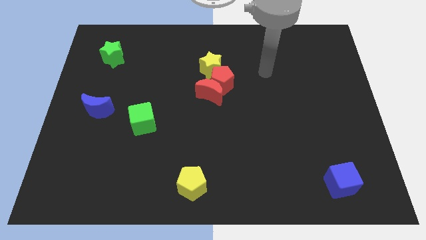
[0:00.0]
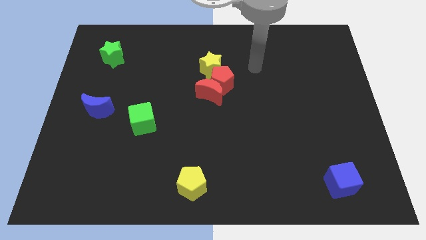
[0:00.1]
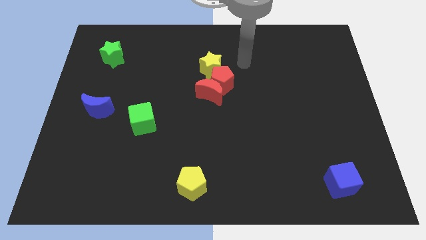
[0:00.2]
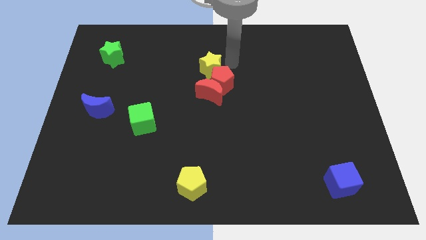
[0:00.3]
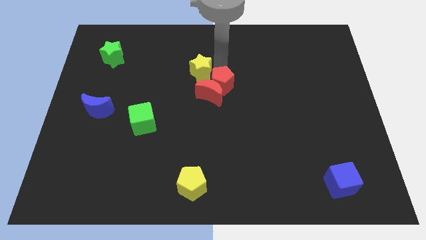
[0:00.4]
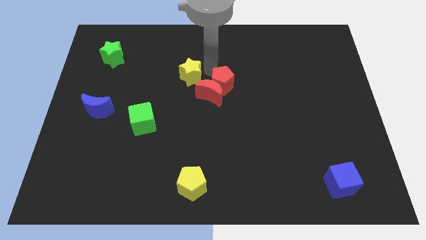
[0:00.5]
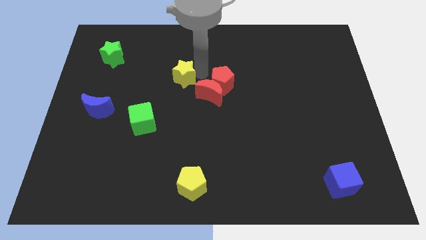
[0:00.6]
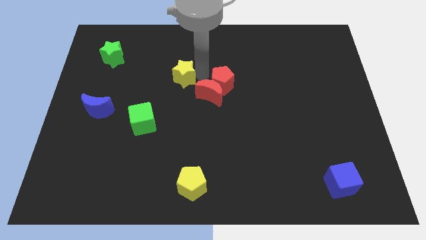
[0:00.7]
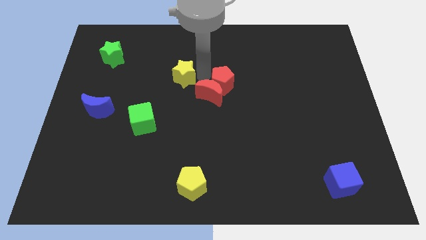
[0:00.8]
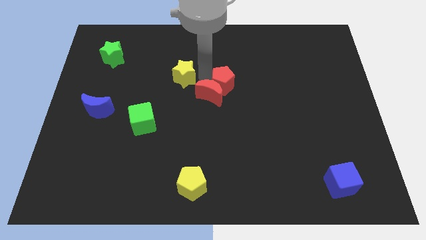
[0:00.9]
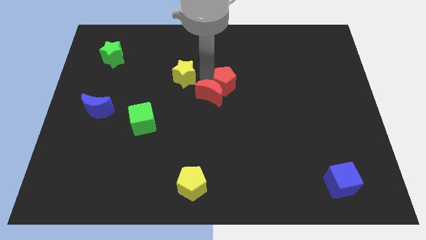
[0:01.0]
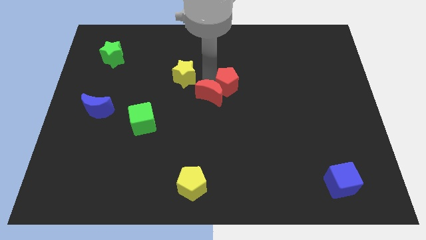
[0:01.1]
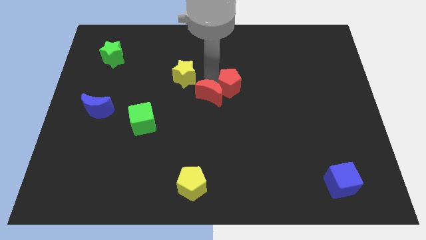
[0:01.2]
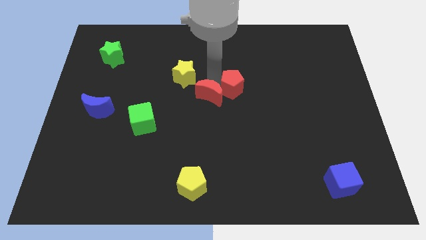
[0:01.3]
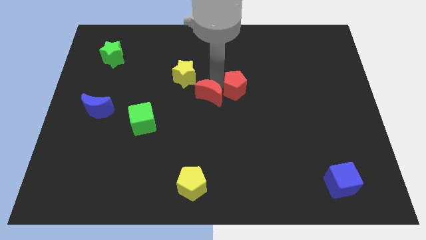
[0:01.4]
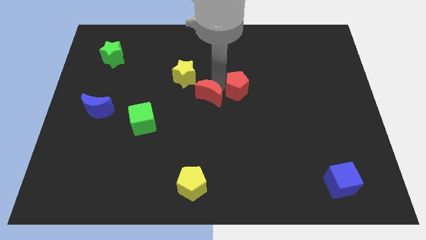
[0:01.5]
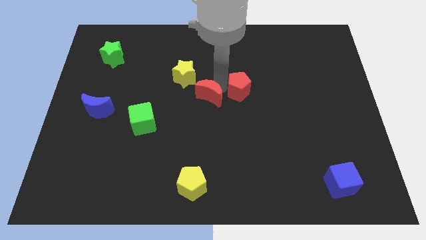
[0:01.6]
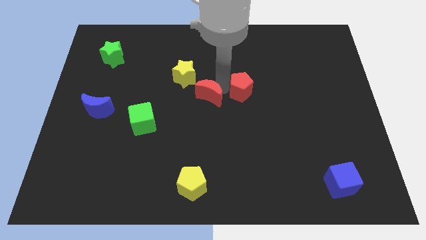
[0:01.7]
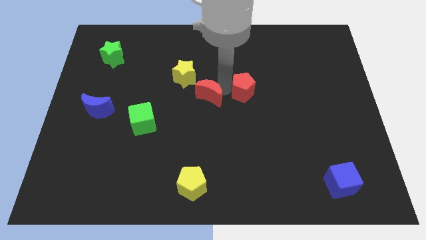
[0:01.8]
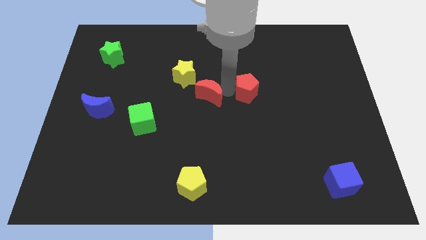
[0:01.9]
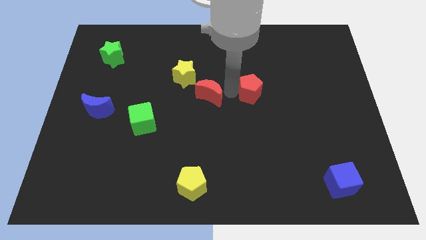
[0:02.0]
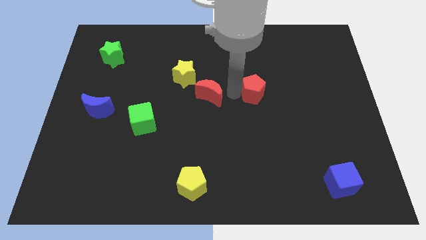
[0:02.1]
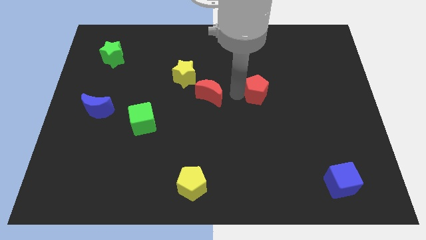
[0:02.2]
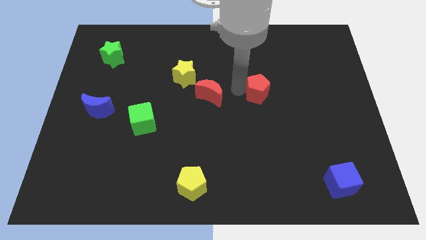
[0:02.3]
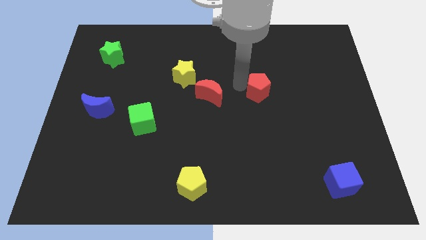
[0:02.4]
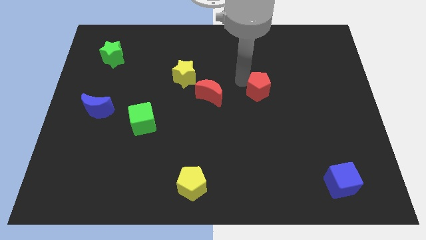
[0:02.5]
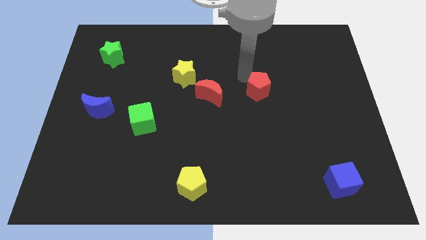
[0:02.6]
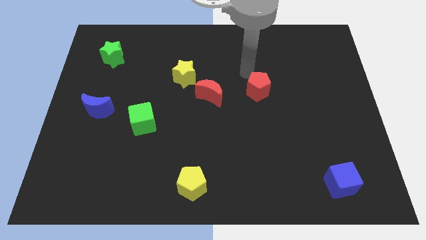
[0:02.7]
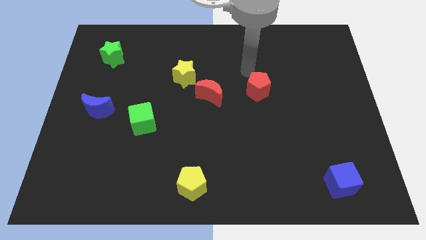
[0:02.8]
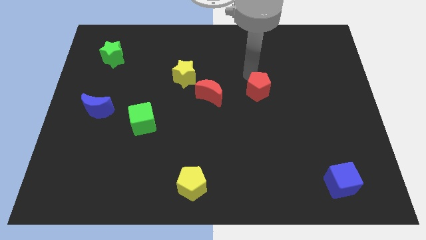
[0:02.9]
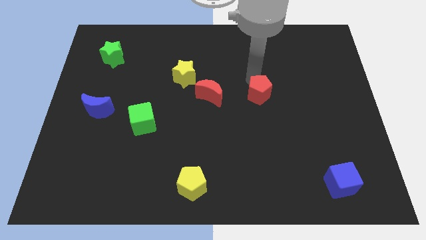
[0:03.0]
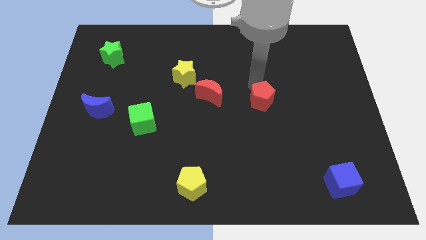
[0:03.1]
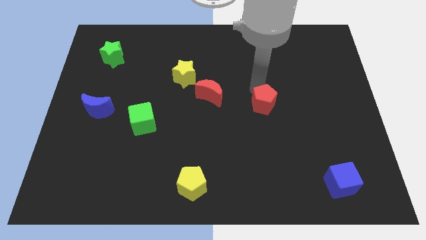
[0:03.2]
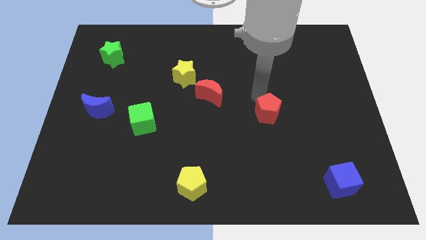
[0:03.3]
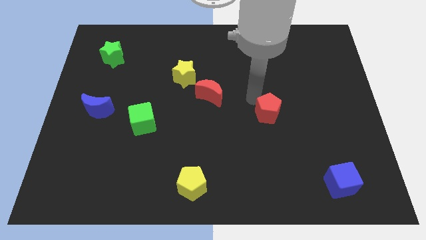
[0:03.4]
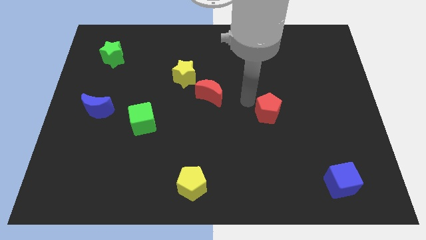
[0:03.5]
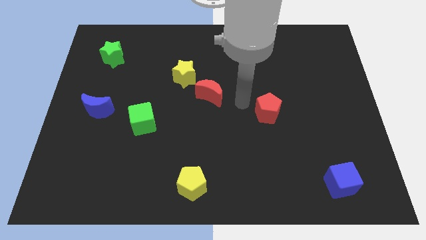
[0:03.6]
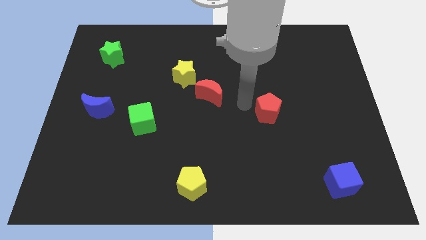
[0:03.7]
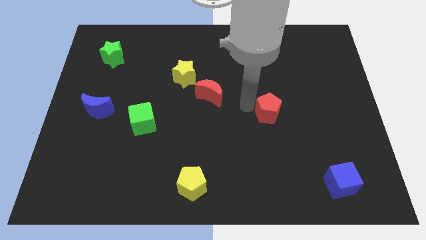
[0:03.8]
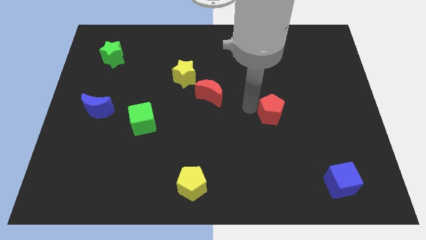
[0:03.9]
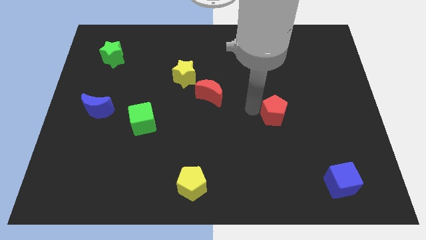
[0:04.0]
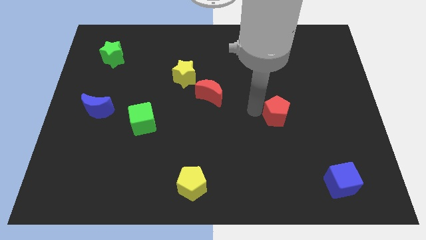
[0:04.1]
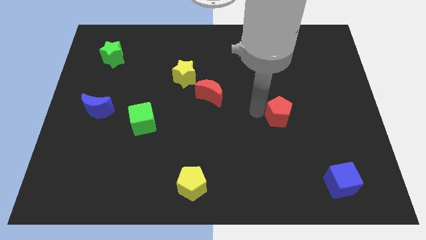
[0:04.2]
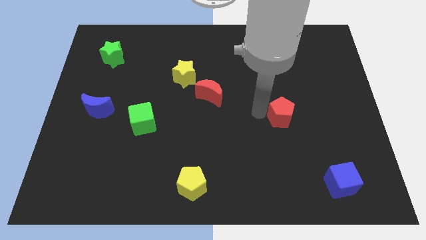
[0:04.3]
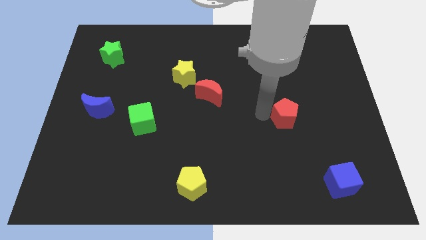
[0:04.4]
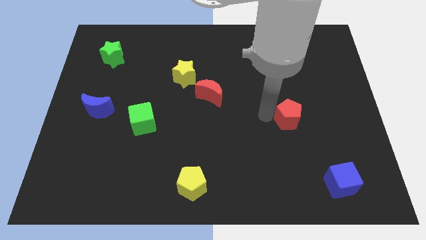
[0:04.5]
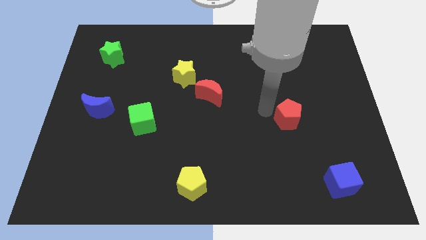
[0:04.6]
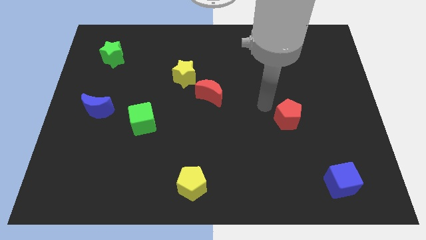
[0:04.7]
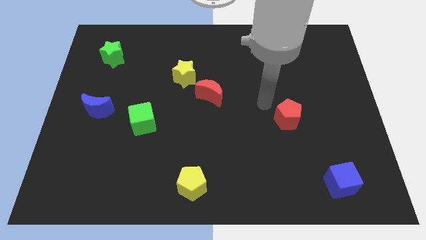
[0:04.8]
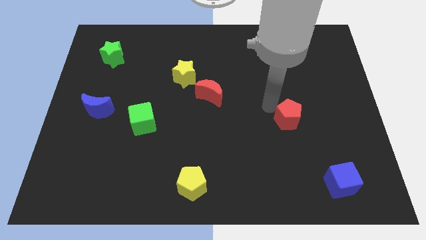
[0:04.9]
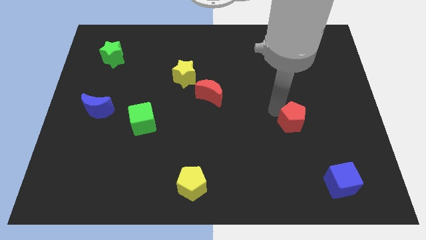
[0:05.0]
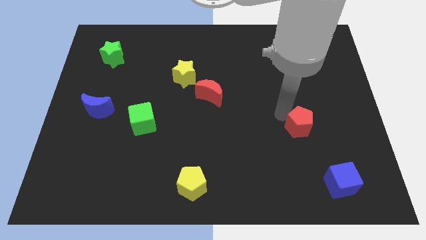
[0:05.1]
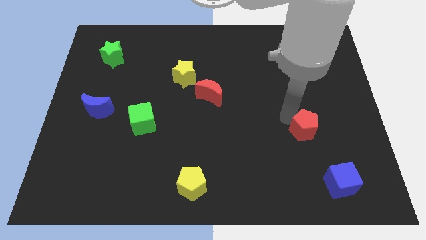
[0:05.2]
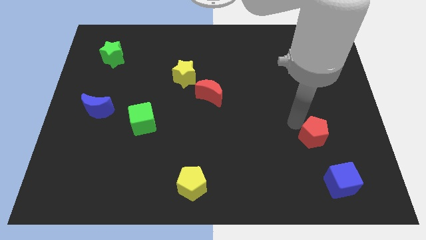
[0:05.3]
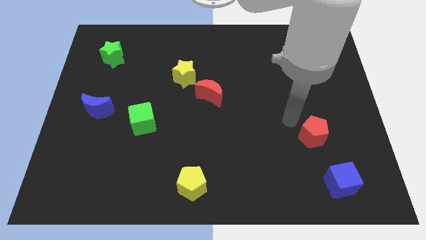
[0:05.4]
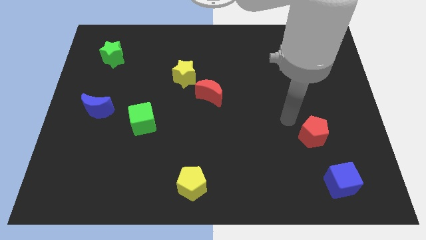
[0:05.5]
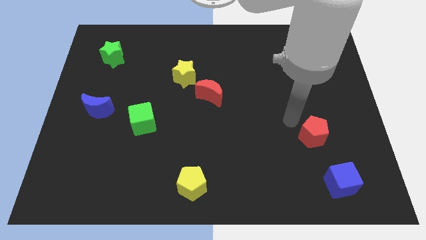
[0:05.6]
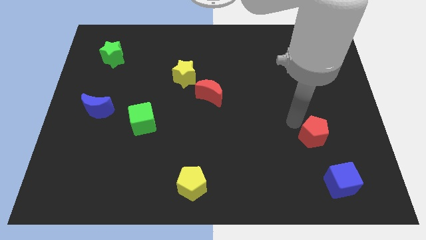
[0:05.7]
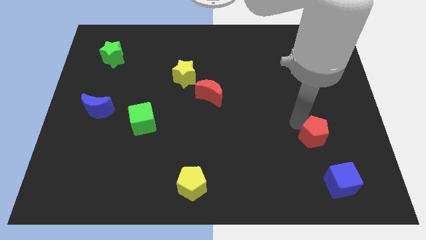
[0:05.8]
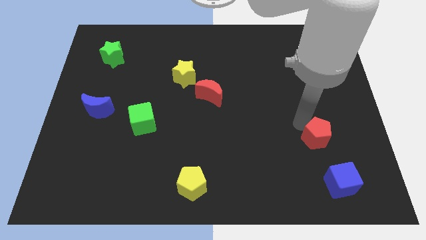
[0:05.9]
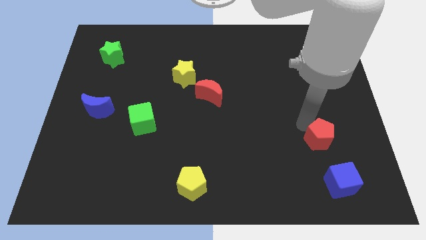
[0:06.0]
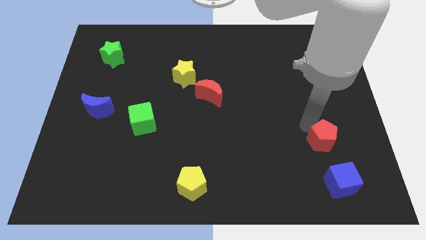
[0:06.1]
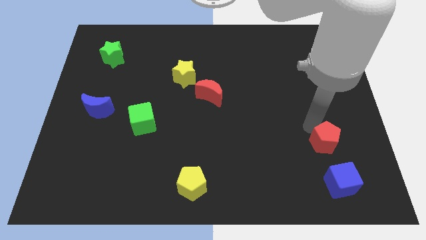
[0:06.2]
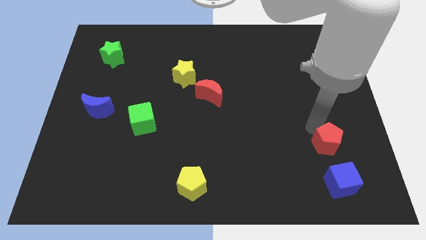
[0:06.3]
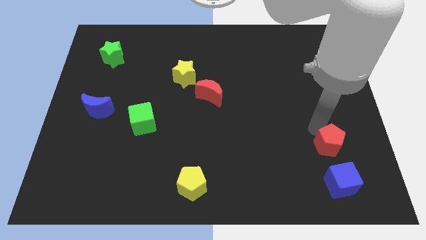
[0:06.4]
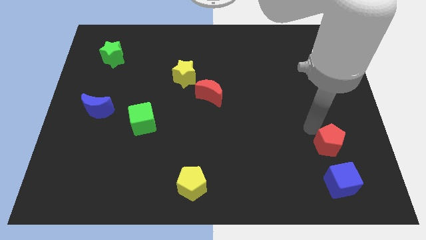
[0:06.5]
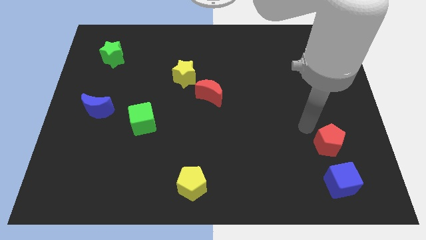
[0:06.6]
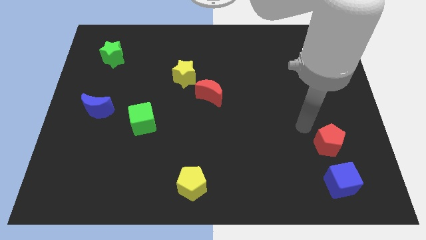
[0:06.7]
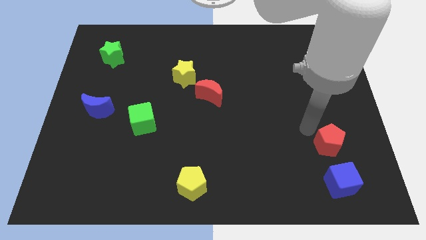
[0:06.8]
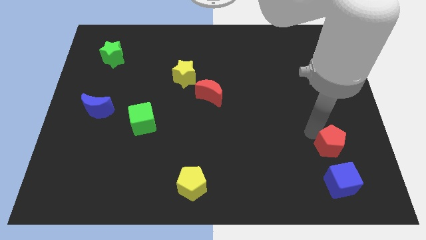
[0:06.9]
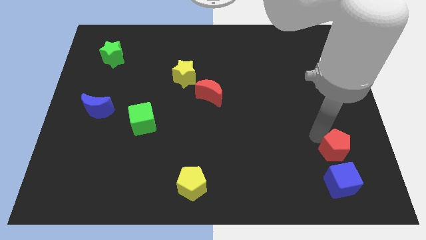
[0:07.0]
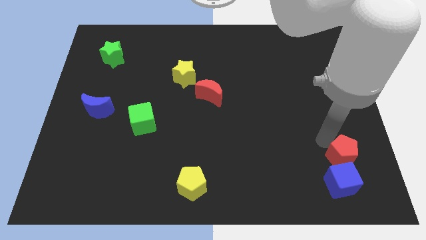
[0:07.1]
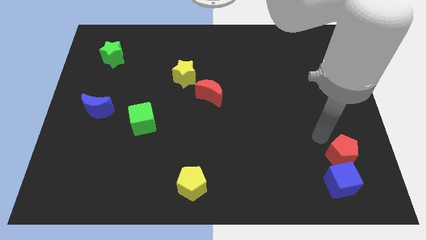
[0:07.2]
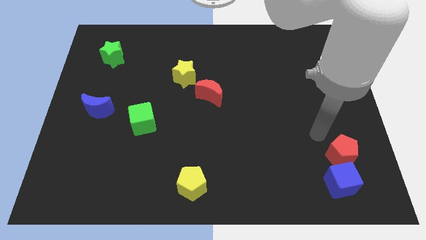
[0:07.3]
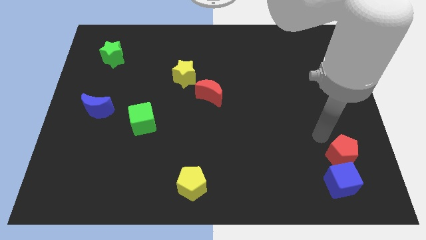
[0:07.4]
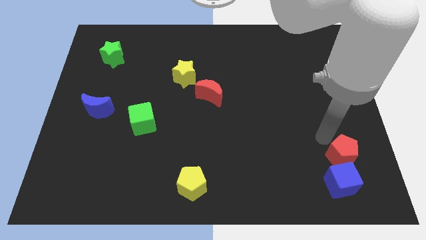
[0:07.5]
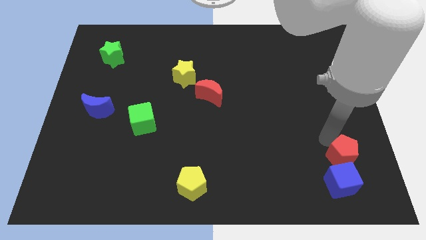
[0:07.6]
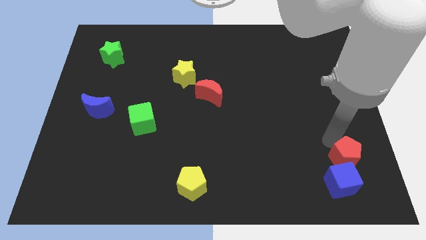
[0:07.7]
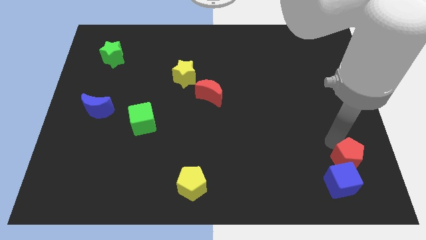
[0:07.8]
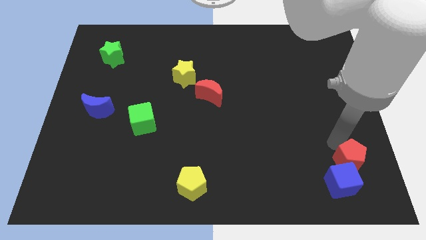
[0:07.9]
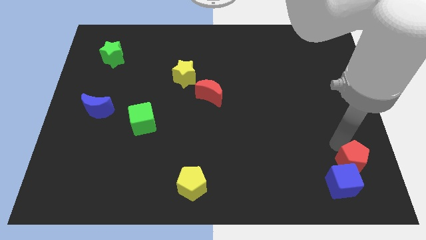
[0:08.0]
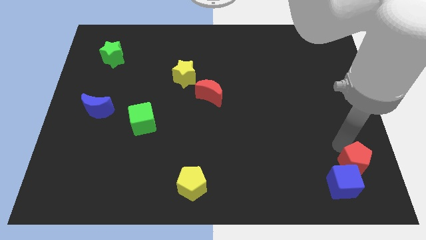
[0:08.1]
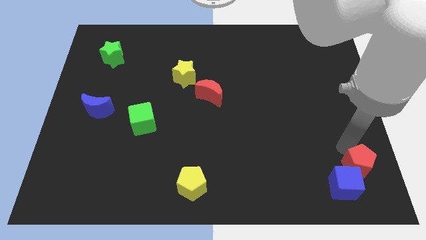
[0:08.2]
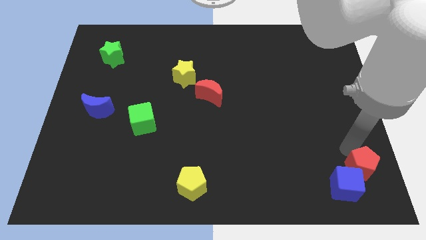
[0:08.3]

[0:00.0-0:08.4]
push the red pentagon to the bottom right corner
